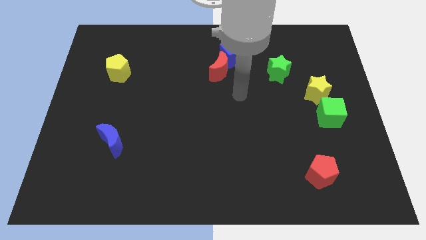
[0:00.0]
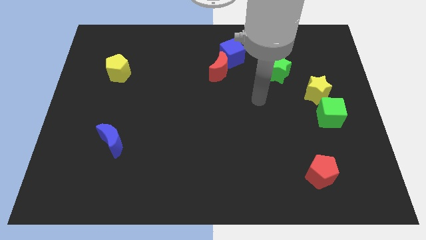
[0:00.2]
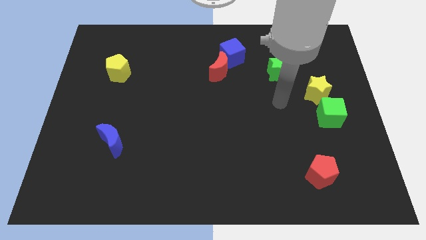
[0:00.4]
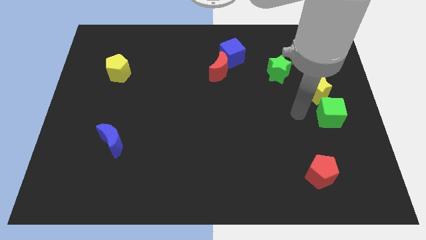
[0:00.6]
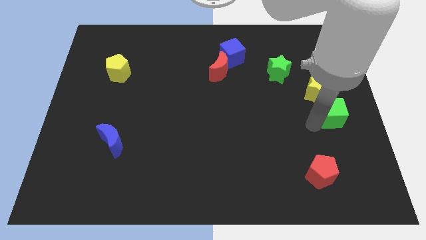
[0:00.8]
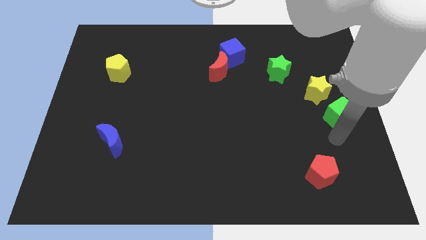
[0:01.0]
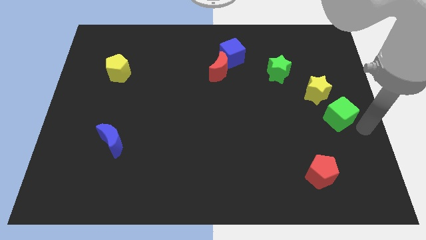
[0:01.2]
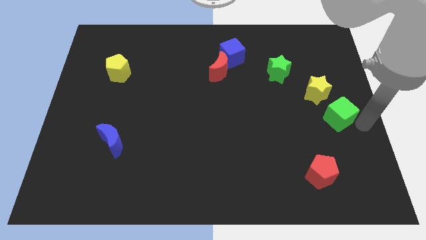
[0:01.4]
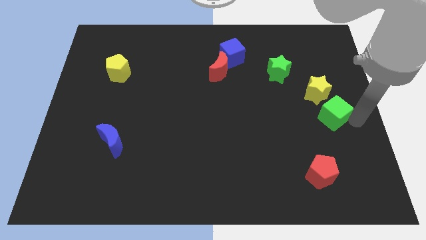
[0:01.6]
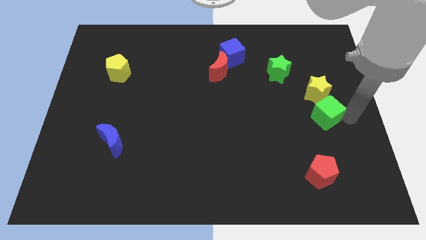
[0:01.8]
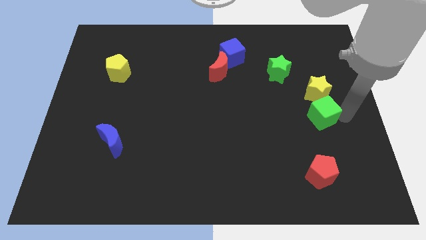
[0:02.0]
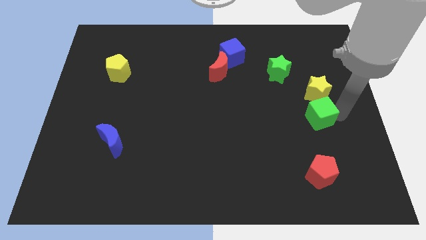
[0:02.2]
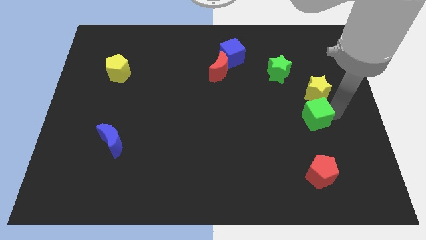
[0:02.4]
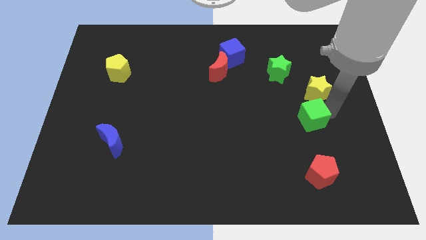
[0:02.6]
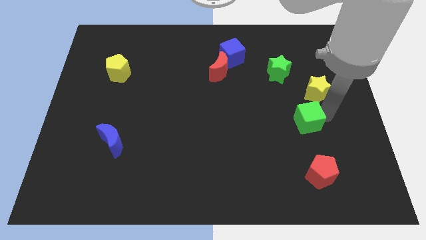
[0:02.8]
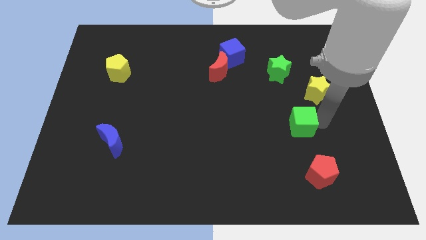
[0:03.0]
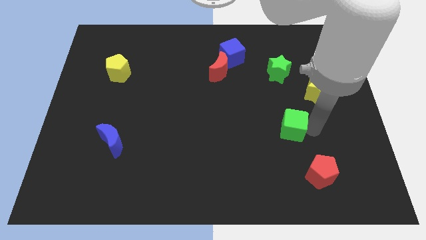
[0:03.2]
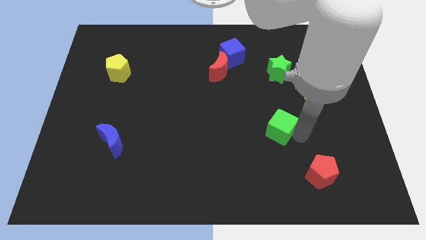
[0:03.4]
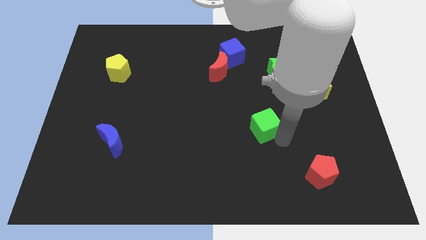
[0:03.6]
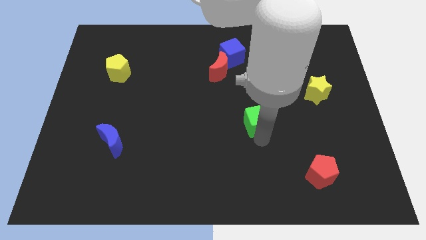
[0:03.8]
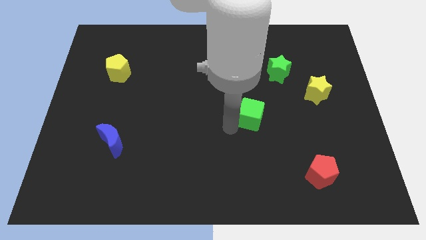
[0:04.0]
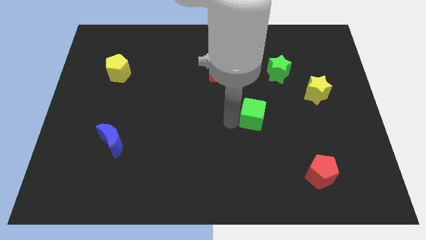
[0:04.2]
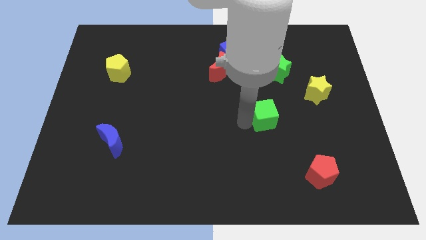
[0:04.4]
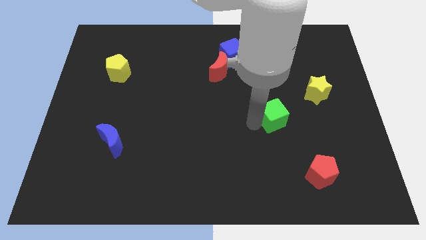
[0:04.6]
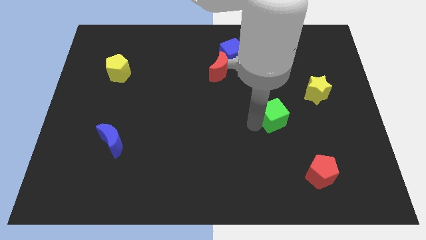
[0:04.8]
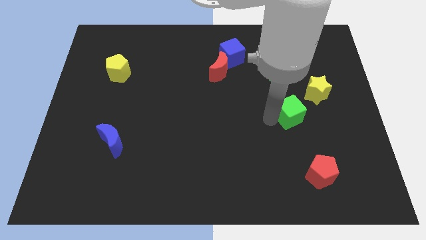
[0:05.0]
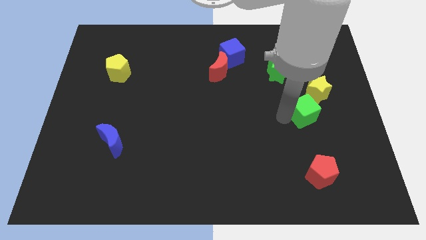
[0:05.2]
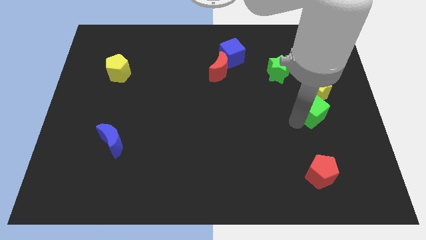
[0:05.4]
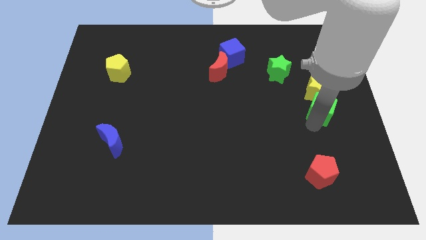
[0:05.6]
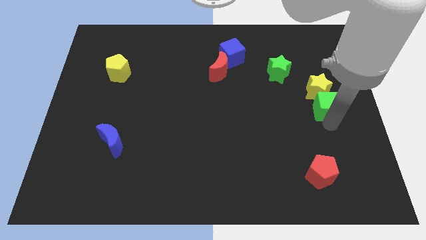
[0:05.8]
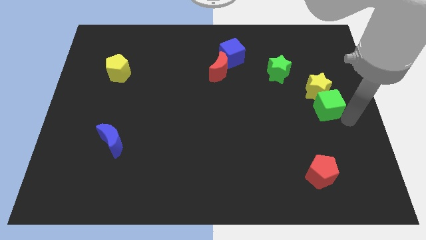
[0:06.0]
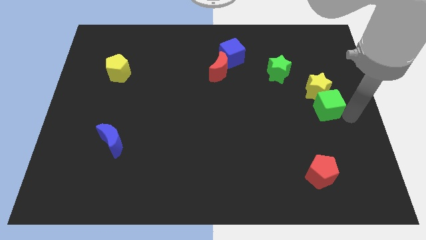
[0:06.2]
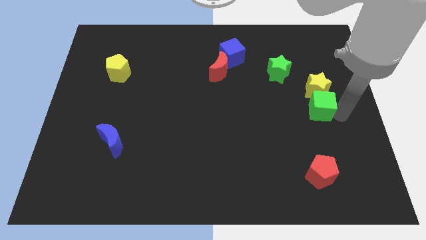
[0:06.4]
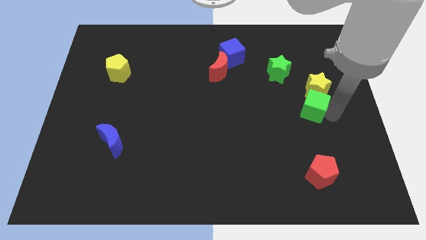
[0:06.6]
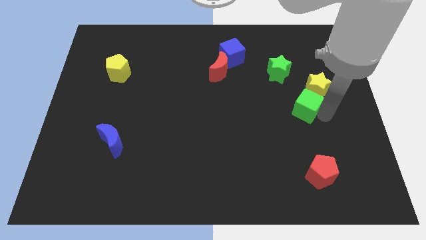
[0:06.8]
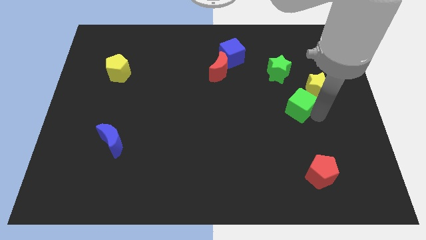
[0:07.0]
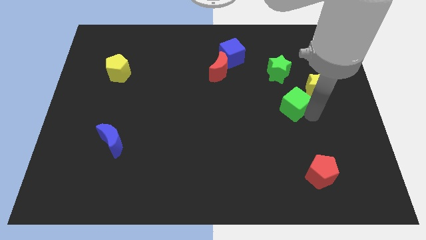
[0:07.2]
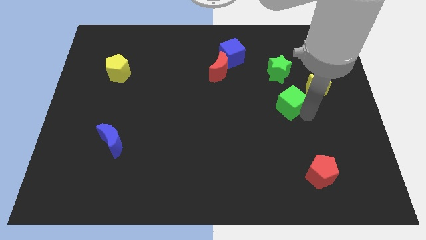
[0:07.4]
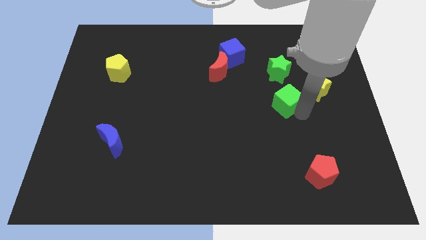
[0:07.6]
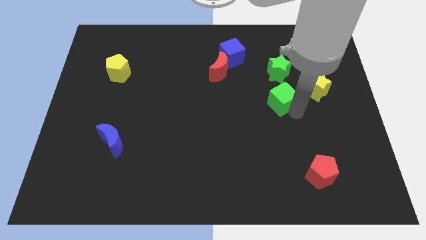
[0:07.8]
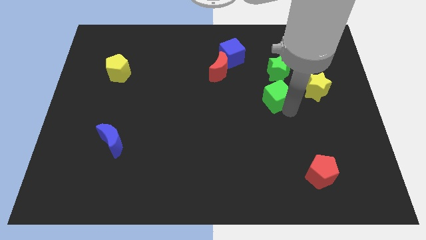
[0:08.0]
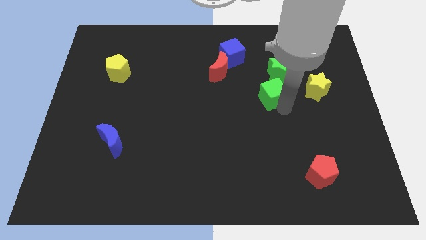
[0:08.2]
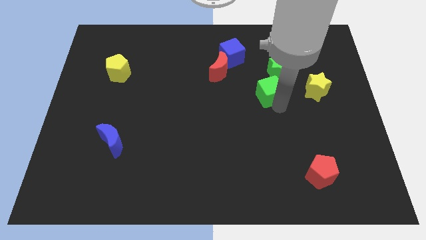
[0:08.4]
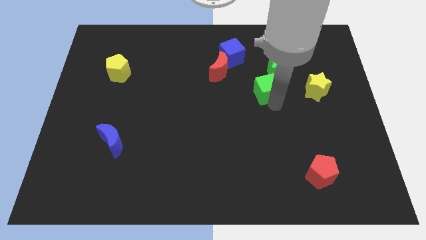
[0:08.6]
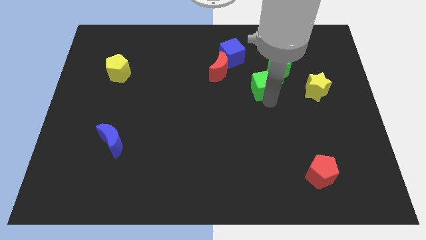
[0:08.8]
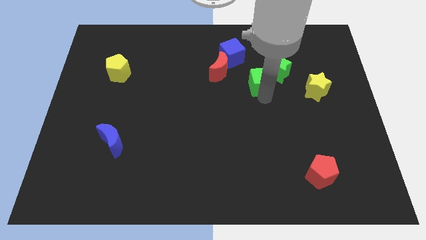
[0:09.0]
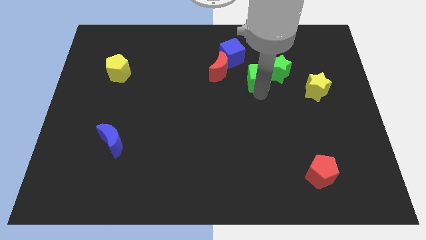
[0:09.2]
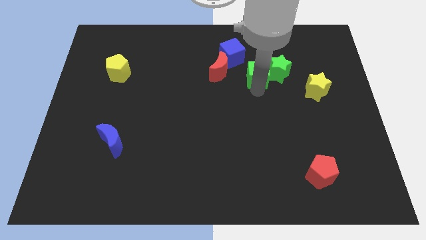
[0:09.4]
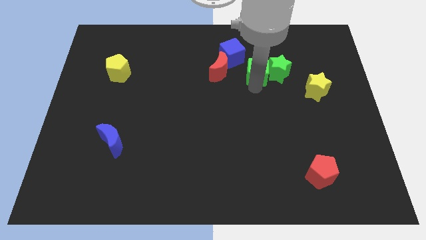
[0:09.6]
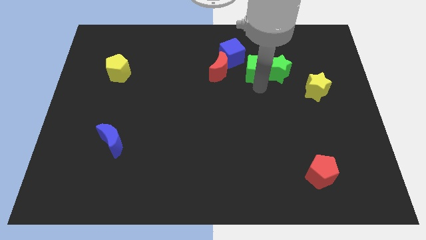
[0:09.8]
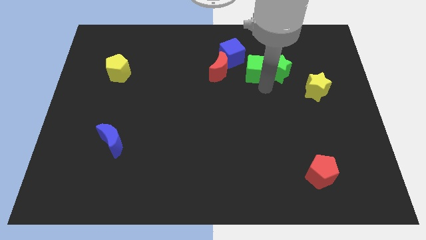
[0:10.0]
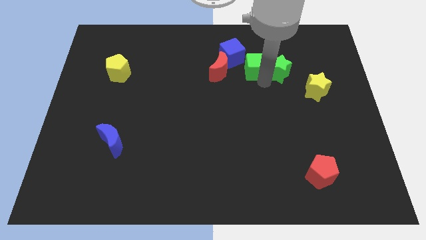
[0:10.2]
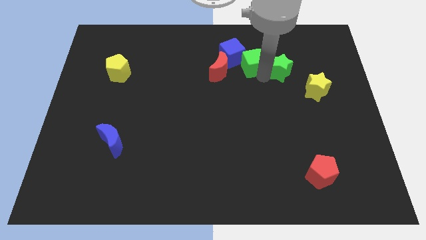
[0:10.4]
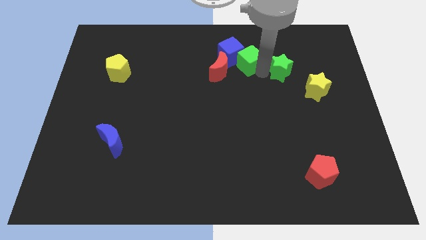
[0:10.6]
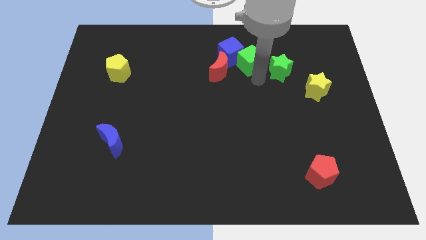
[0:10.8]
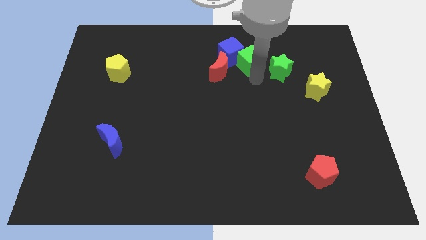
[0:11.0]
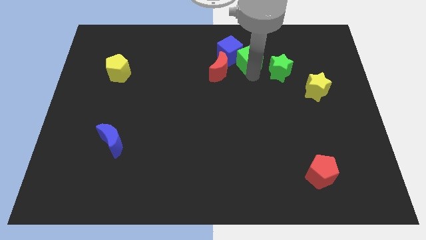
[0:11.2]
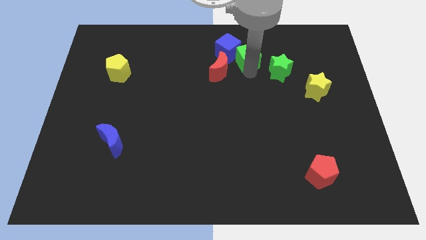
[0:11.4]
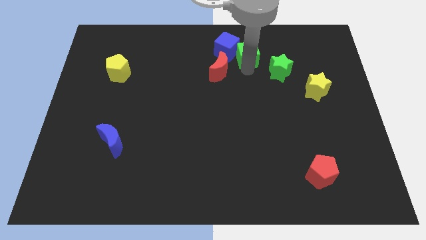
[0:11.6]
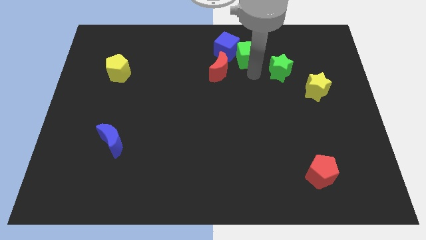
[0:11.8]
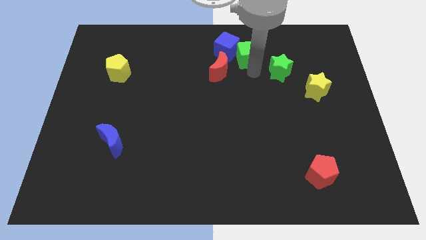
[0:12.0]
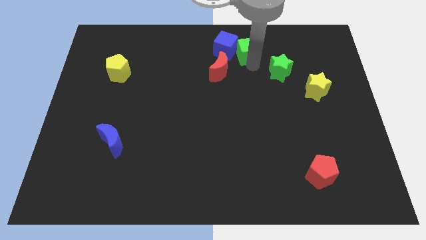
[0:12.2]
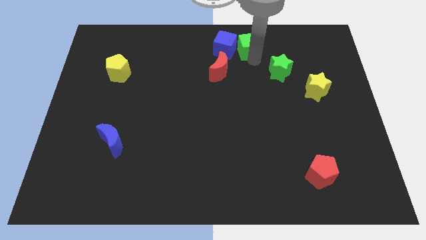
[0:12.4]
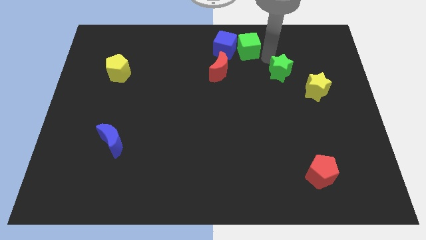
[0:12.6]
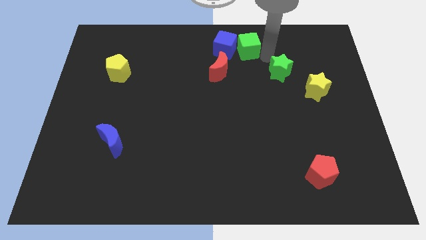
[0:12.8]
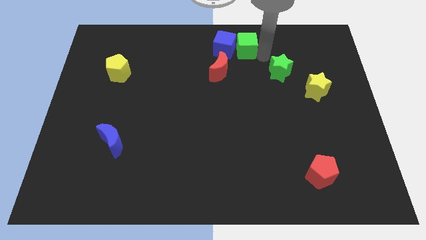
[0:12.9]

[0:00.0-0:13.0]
put the green cube to the top

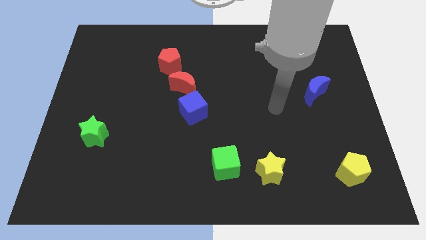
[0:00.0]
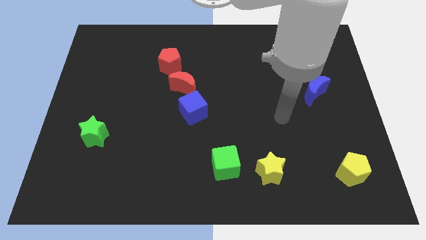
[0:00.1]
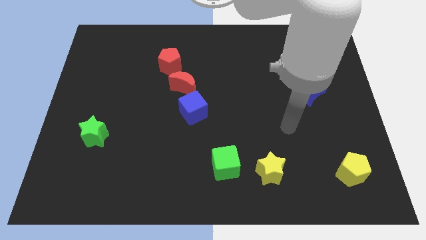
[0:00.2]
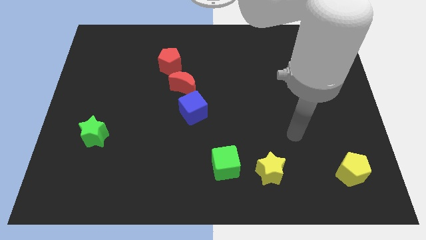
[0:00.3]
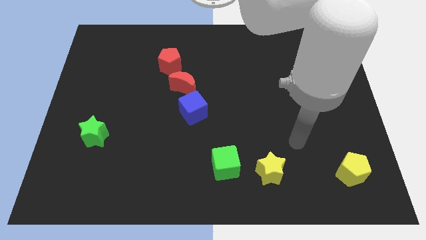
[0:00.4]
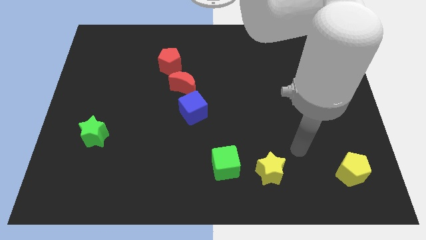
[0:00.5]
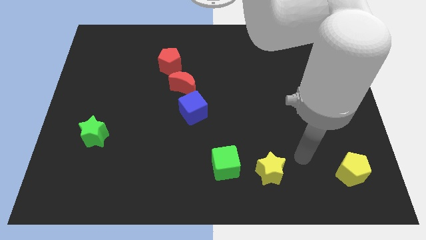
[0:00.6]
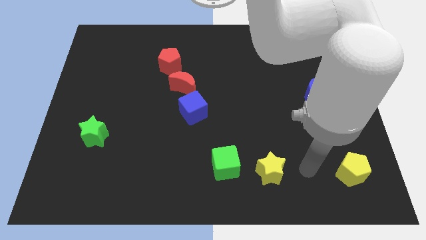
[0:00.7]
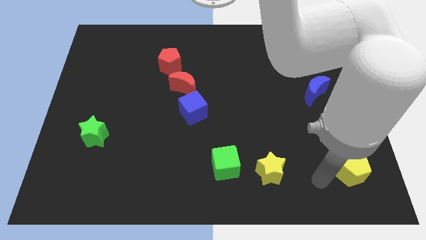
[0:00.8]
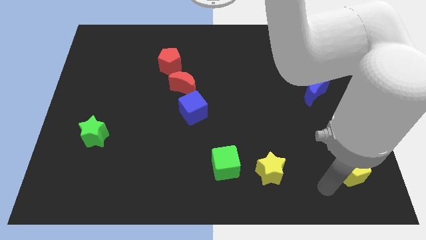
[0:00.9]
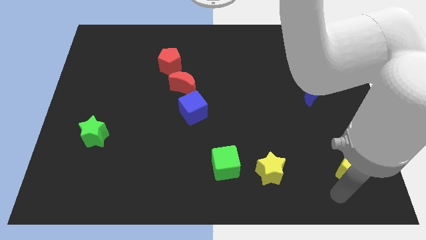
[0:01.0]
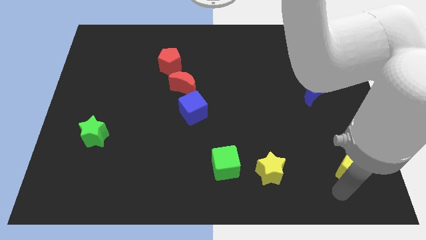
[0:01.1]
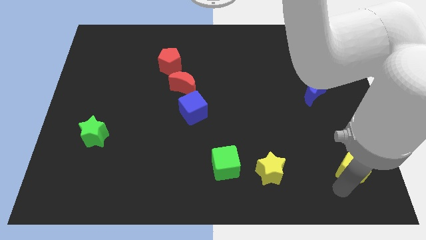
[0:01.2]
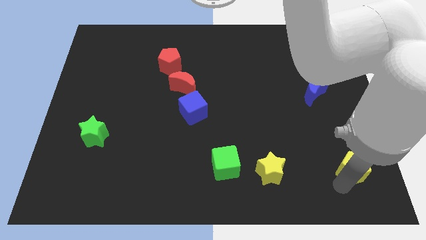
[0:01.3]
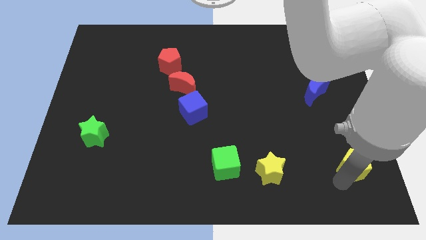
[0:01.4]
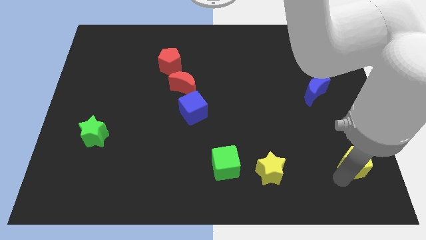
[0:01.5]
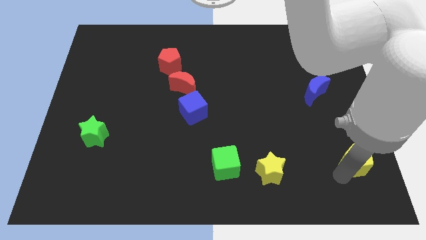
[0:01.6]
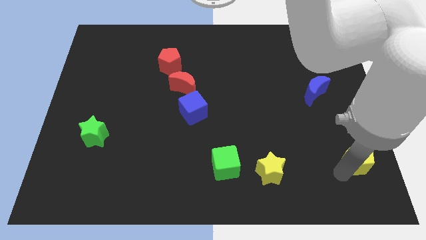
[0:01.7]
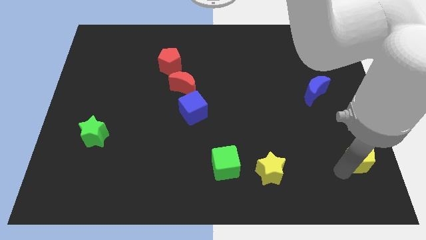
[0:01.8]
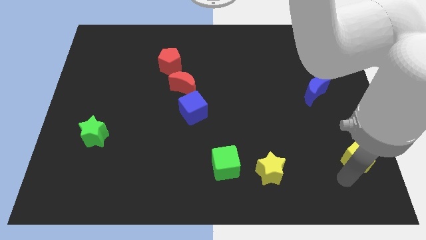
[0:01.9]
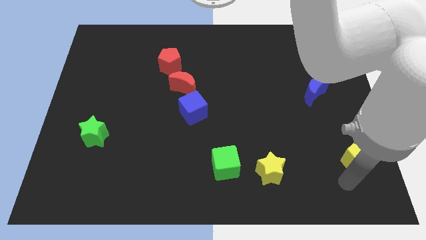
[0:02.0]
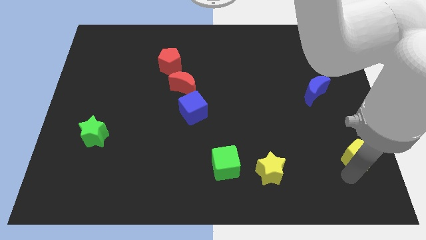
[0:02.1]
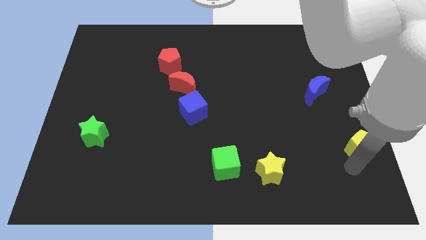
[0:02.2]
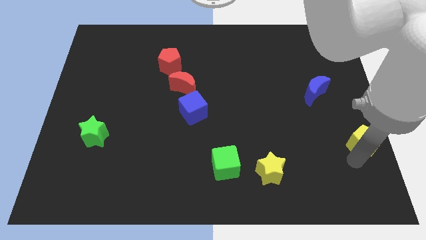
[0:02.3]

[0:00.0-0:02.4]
move the yellow pentagon to the right side of the board
